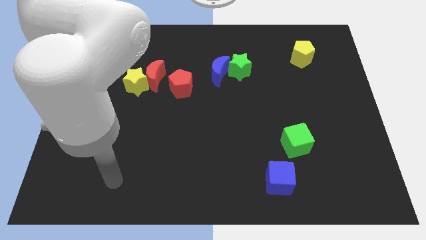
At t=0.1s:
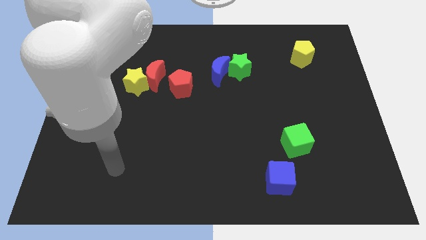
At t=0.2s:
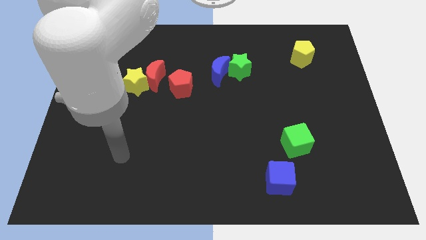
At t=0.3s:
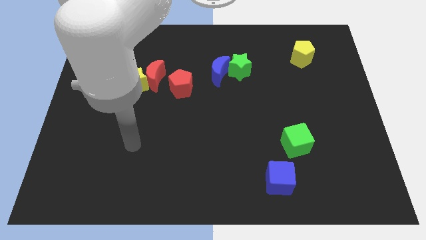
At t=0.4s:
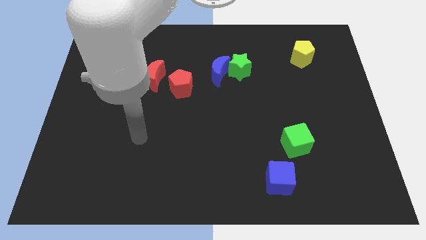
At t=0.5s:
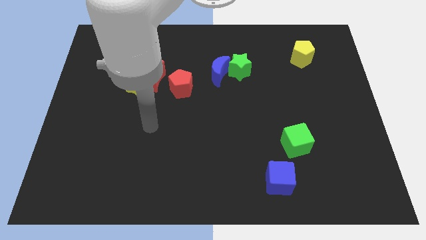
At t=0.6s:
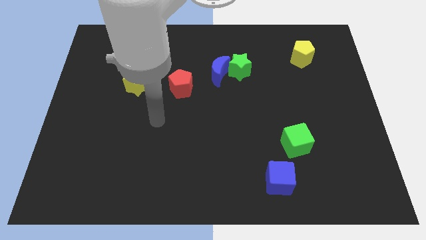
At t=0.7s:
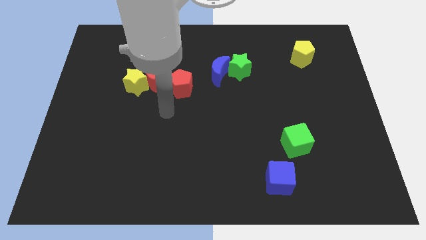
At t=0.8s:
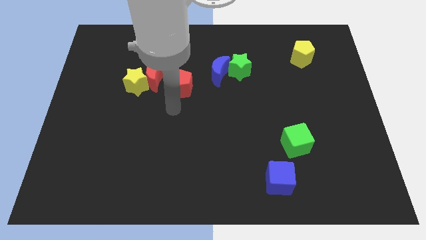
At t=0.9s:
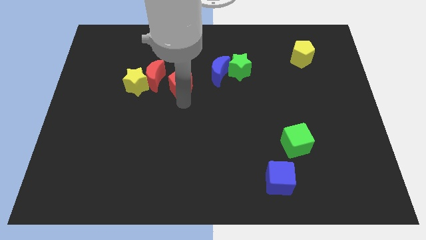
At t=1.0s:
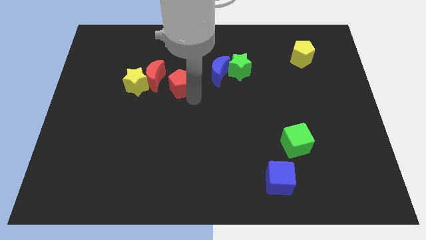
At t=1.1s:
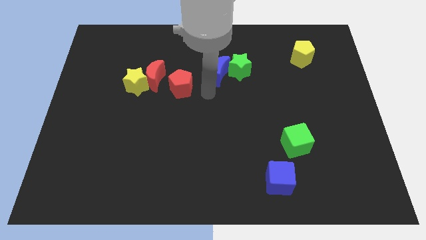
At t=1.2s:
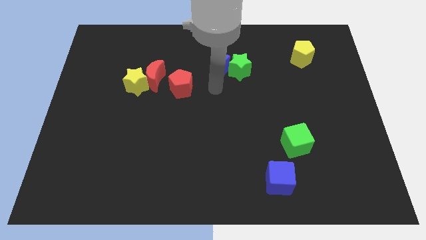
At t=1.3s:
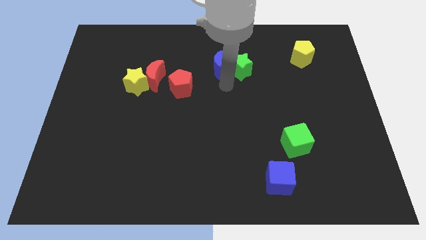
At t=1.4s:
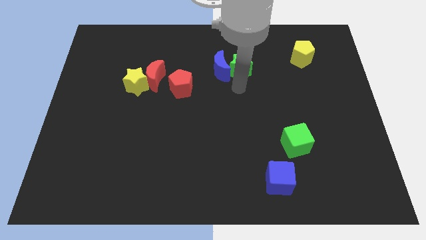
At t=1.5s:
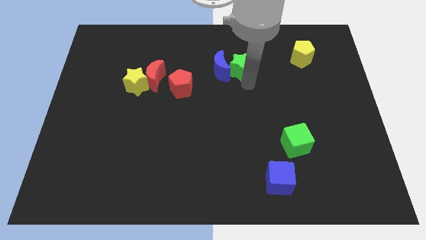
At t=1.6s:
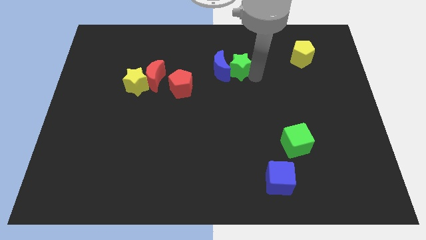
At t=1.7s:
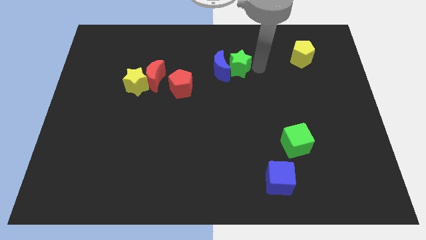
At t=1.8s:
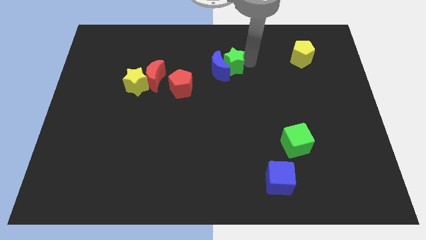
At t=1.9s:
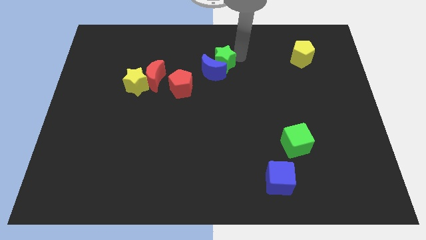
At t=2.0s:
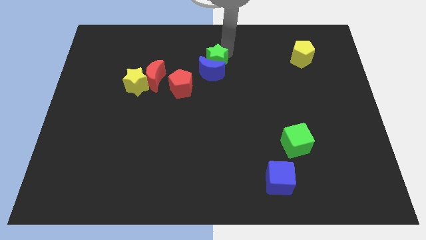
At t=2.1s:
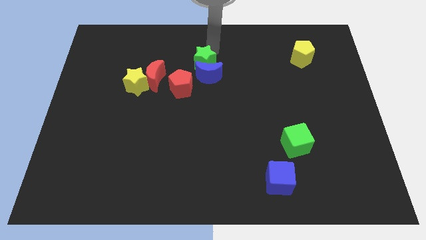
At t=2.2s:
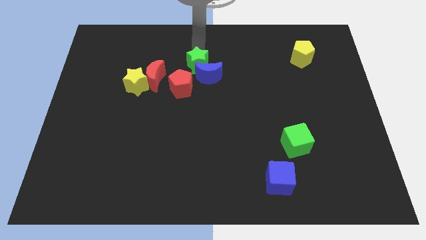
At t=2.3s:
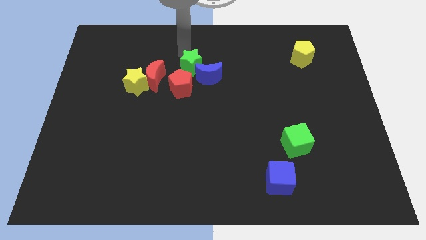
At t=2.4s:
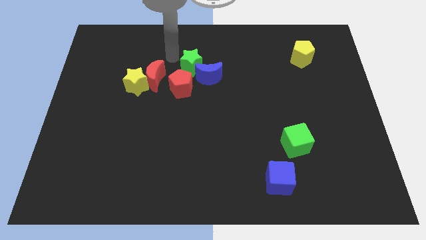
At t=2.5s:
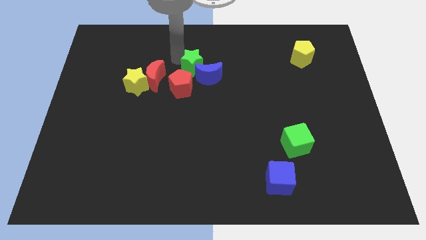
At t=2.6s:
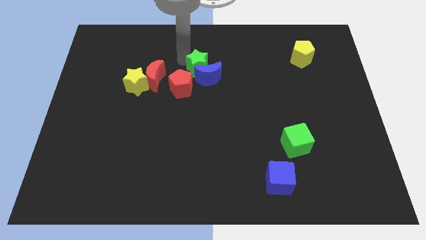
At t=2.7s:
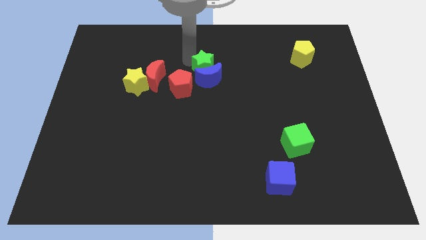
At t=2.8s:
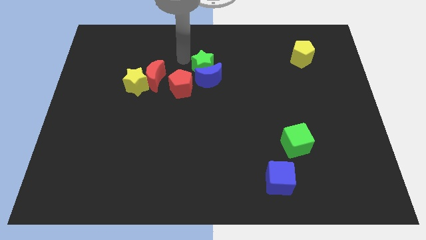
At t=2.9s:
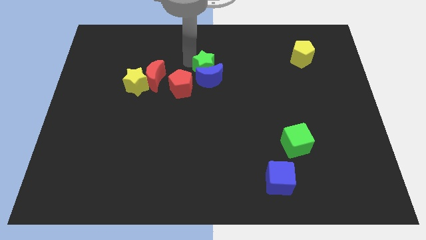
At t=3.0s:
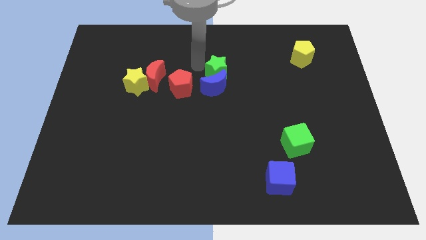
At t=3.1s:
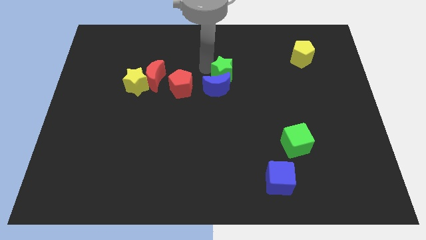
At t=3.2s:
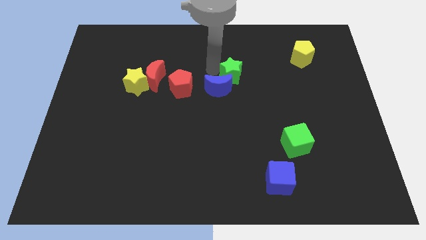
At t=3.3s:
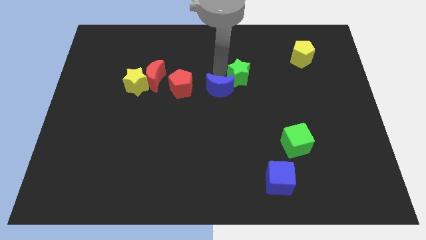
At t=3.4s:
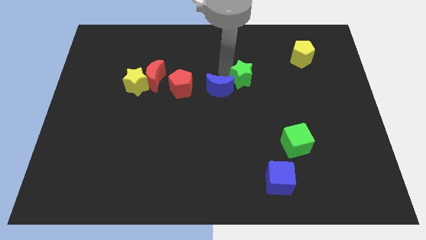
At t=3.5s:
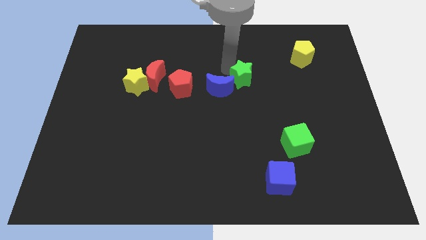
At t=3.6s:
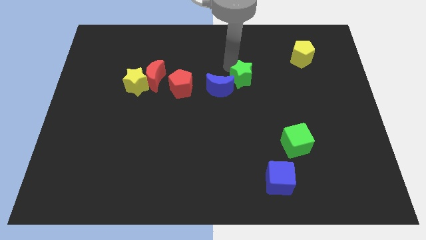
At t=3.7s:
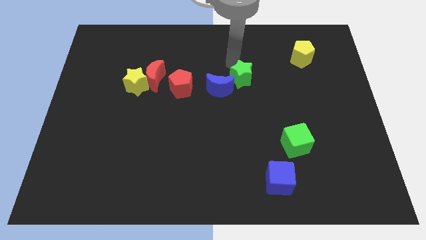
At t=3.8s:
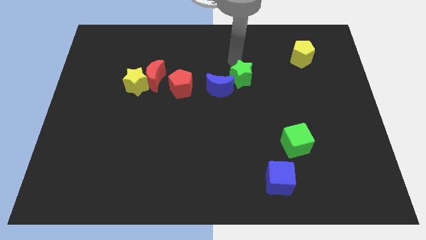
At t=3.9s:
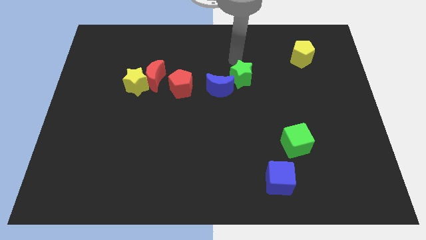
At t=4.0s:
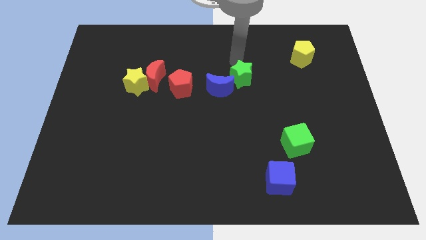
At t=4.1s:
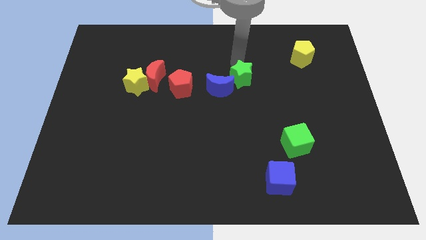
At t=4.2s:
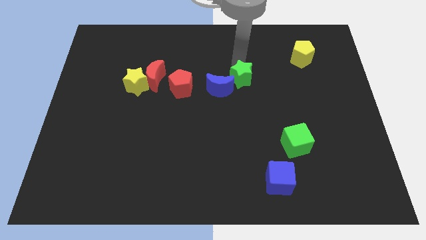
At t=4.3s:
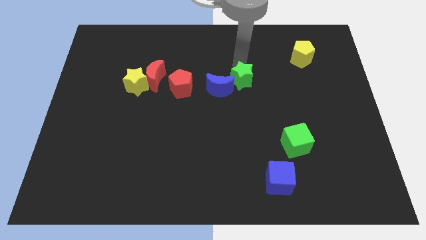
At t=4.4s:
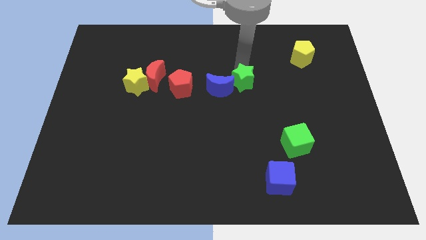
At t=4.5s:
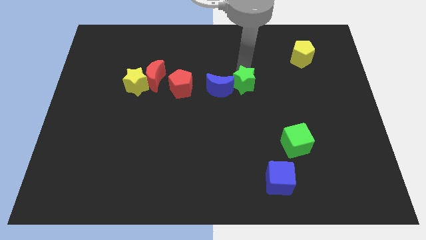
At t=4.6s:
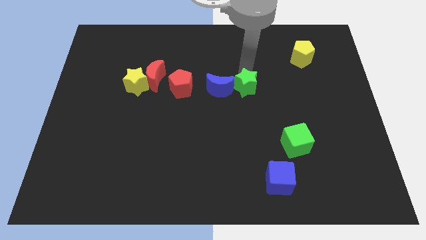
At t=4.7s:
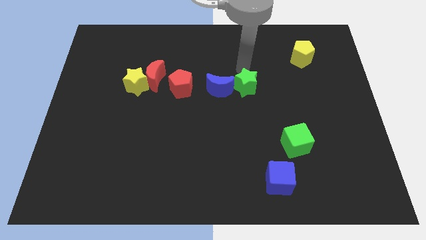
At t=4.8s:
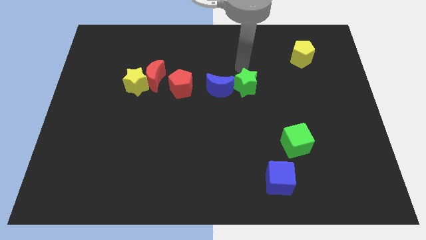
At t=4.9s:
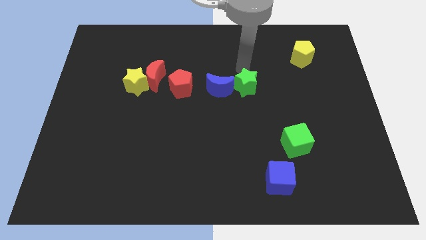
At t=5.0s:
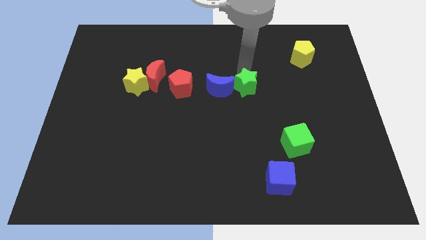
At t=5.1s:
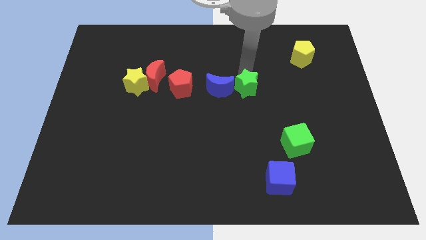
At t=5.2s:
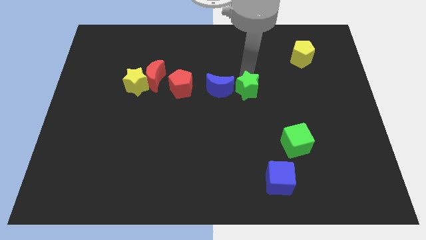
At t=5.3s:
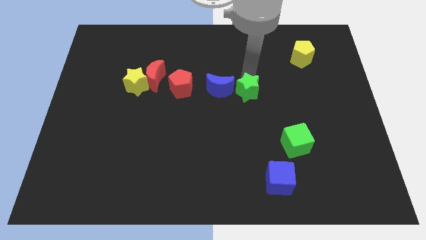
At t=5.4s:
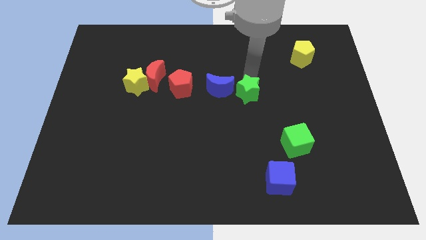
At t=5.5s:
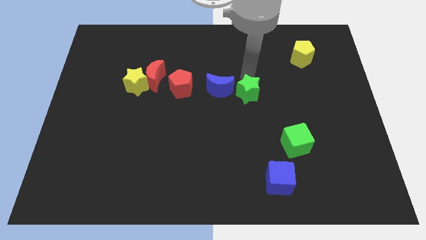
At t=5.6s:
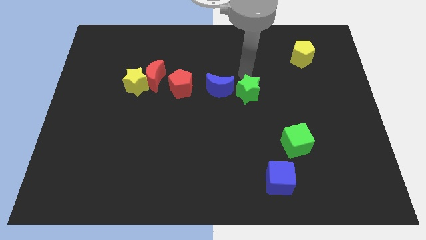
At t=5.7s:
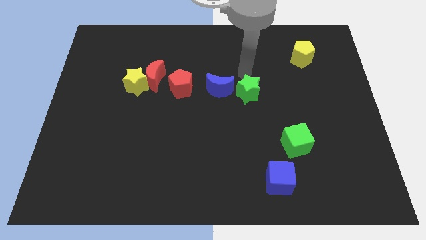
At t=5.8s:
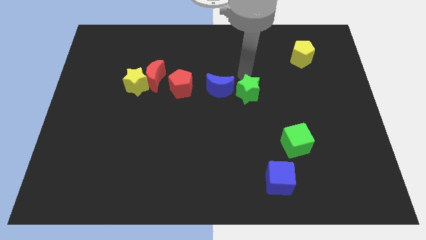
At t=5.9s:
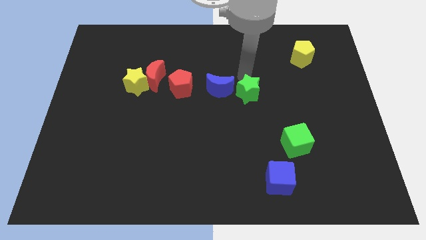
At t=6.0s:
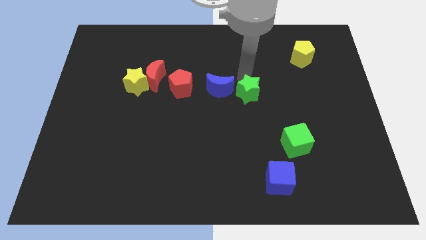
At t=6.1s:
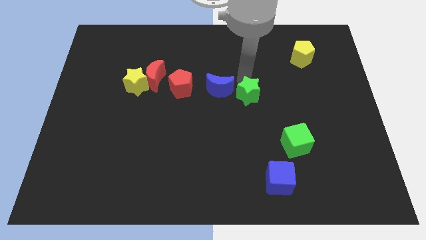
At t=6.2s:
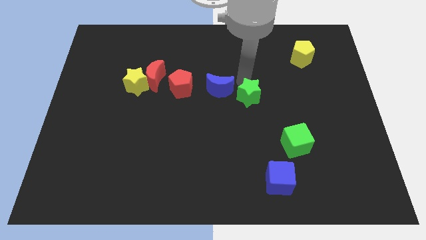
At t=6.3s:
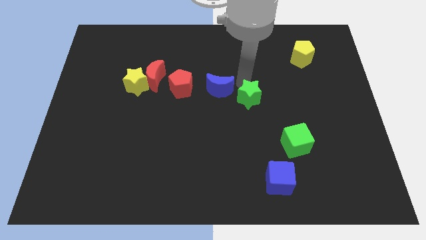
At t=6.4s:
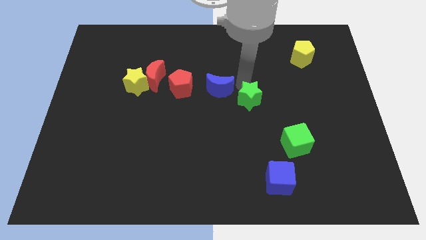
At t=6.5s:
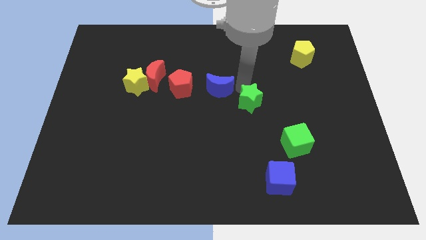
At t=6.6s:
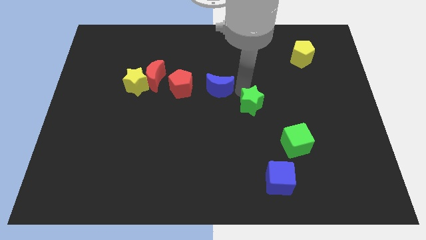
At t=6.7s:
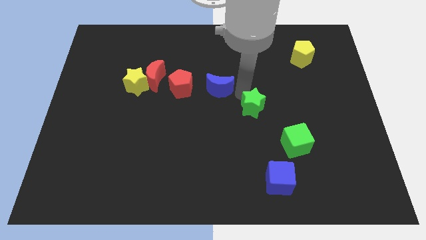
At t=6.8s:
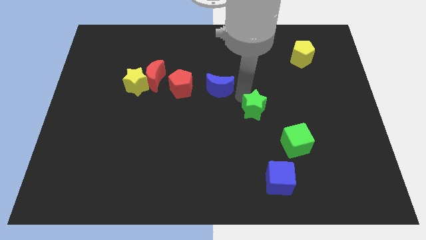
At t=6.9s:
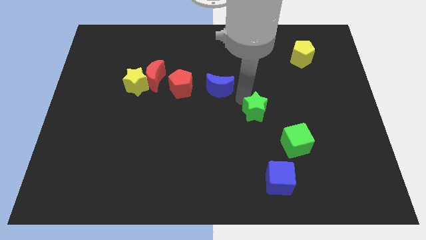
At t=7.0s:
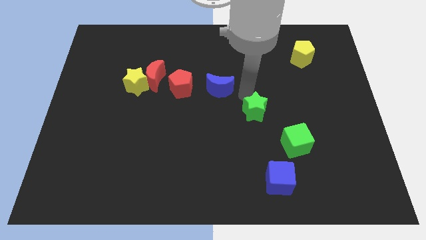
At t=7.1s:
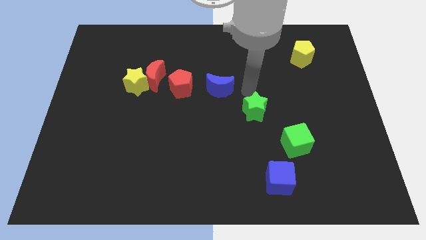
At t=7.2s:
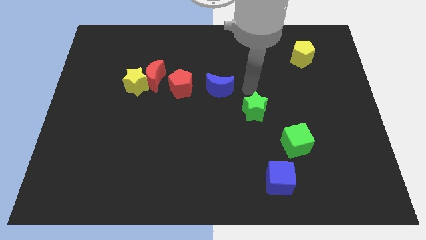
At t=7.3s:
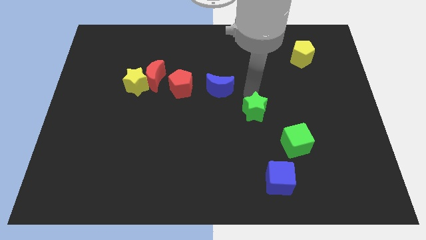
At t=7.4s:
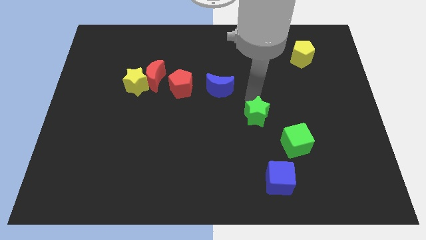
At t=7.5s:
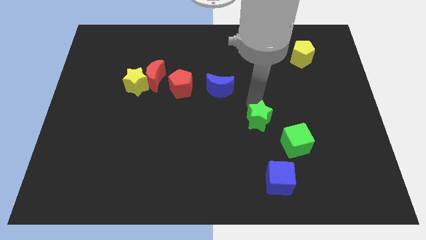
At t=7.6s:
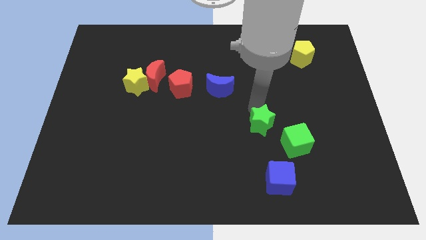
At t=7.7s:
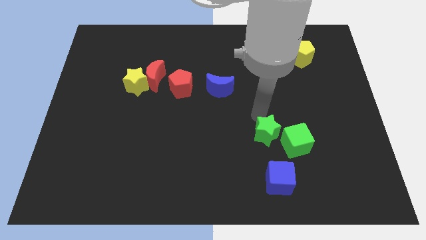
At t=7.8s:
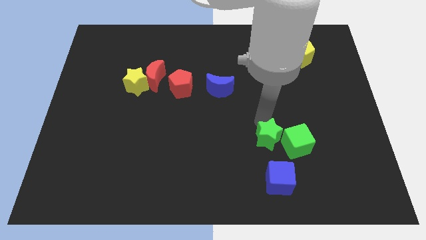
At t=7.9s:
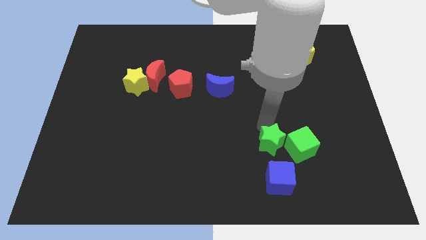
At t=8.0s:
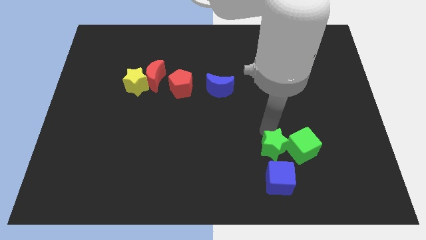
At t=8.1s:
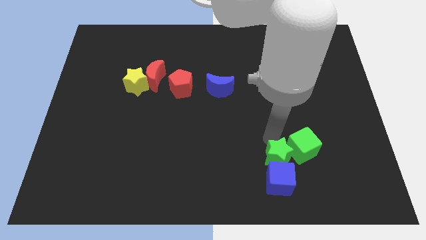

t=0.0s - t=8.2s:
put the green star to the blue cube

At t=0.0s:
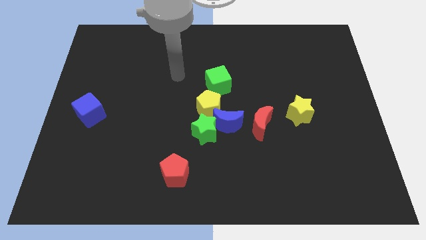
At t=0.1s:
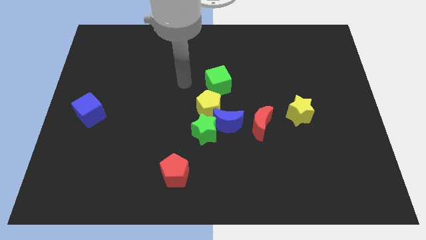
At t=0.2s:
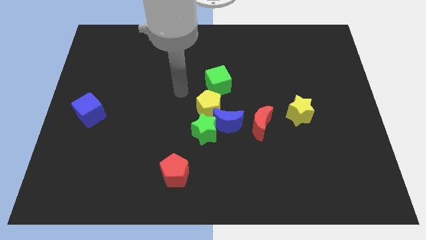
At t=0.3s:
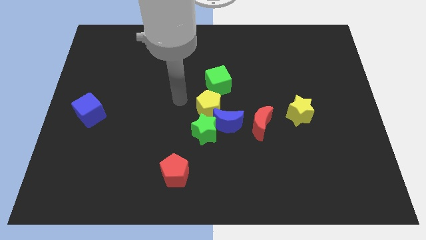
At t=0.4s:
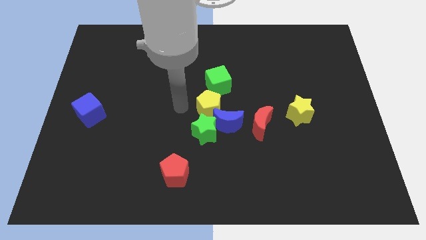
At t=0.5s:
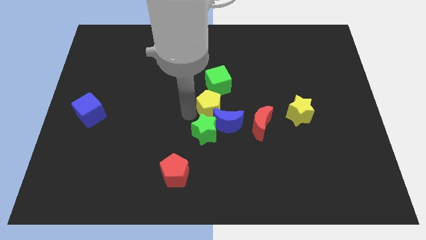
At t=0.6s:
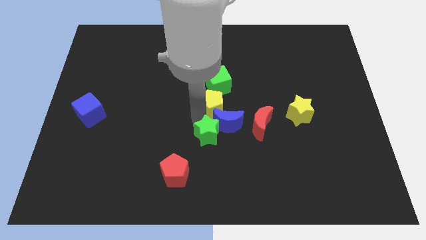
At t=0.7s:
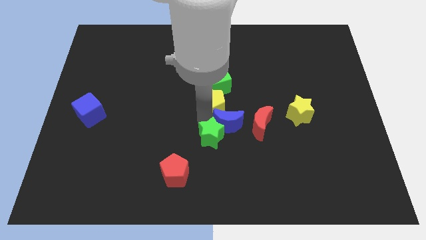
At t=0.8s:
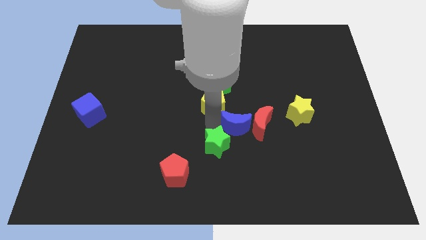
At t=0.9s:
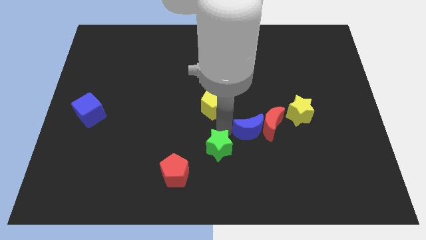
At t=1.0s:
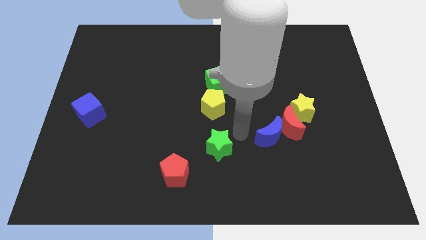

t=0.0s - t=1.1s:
move the red moon to the yellow star
